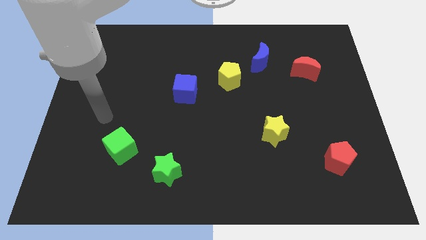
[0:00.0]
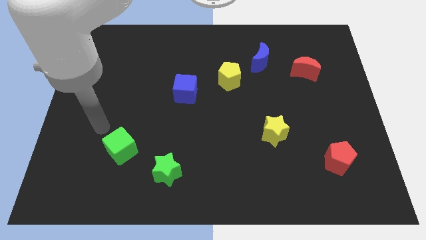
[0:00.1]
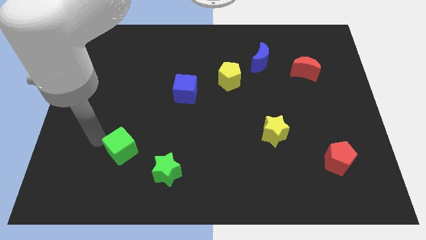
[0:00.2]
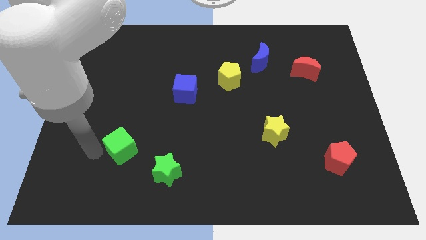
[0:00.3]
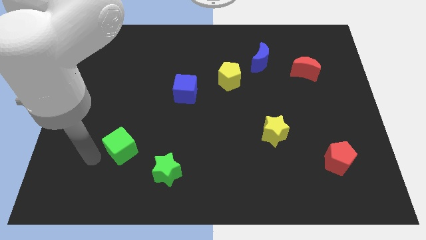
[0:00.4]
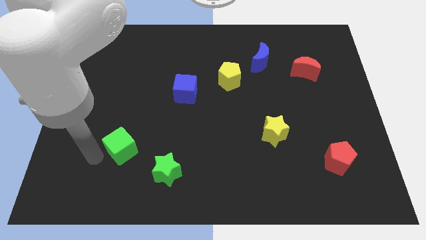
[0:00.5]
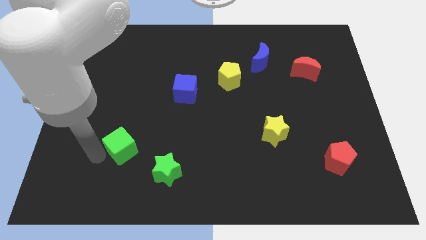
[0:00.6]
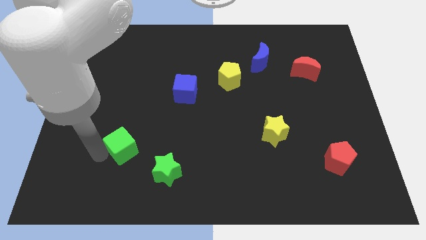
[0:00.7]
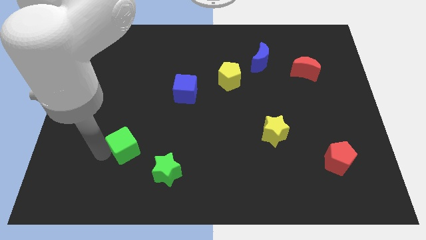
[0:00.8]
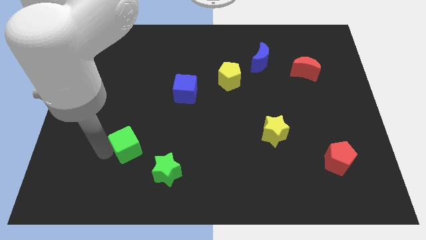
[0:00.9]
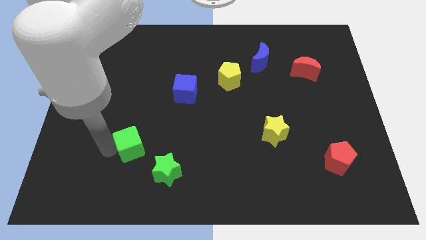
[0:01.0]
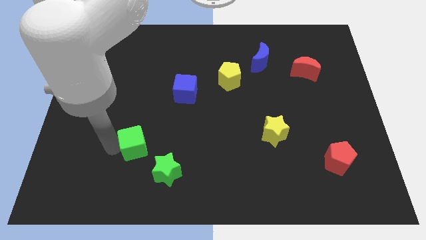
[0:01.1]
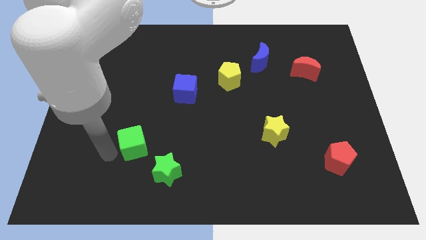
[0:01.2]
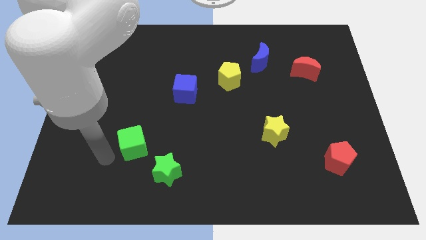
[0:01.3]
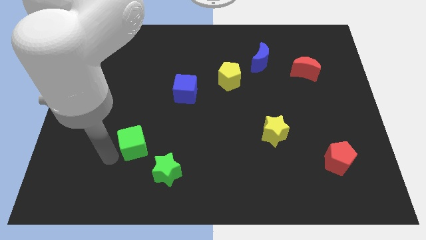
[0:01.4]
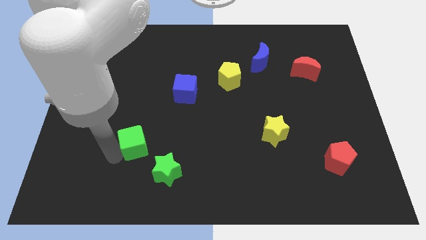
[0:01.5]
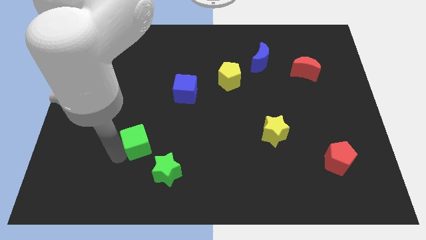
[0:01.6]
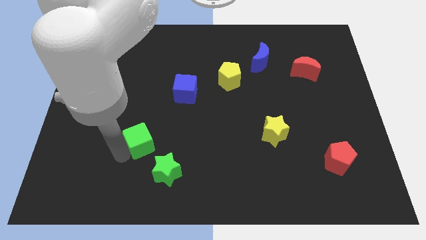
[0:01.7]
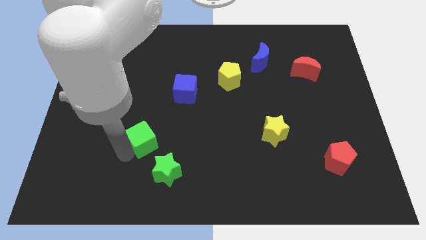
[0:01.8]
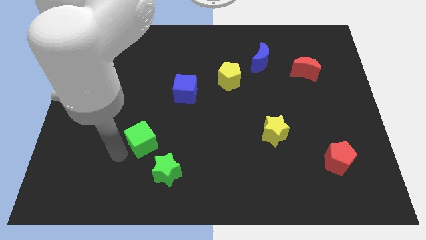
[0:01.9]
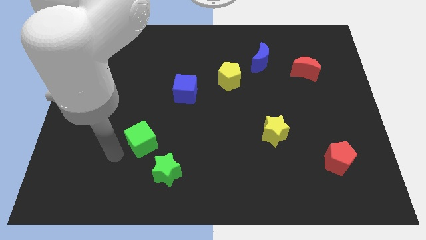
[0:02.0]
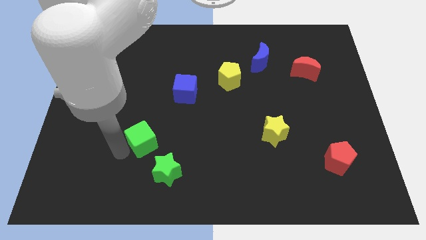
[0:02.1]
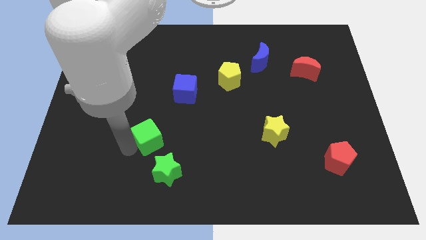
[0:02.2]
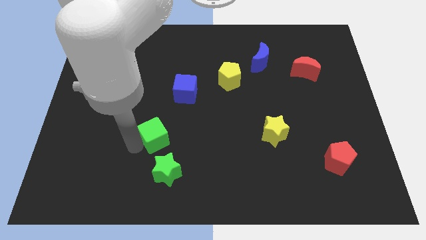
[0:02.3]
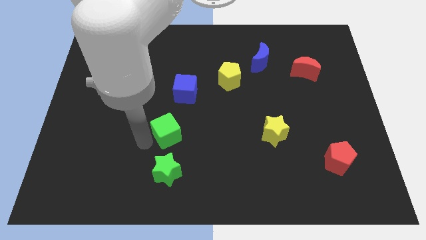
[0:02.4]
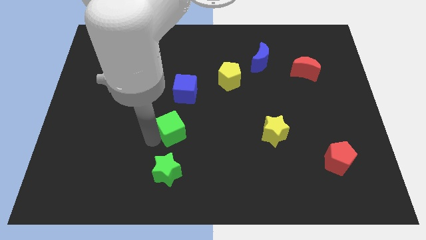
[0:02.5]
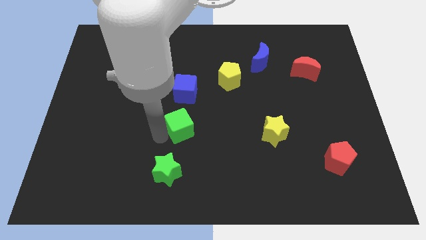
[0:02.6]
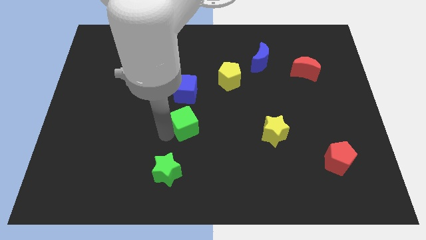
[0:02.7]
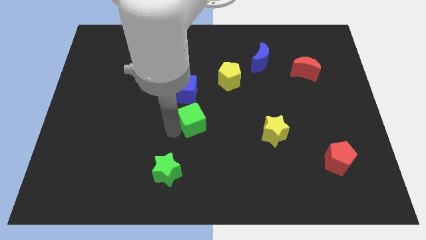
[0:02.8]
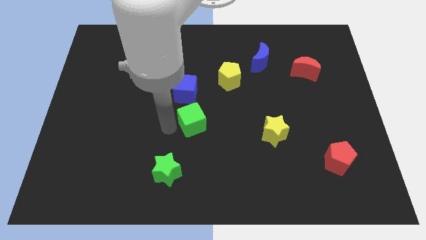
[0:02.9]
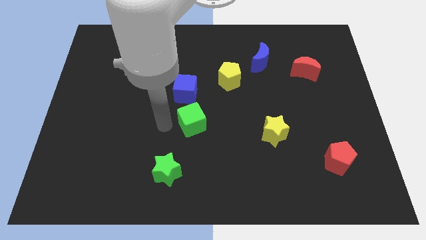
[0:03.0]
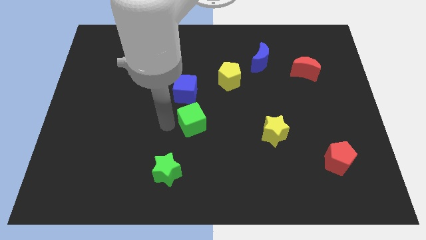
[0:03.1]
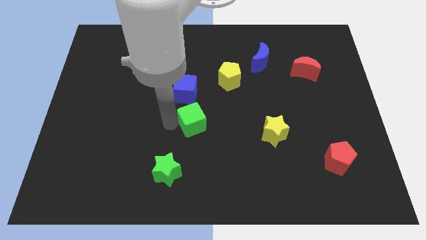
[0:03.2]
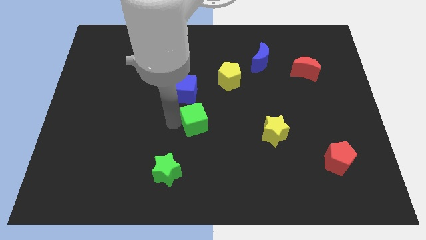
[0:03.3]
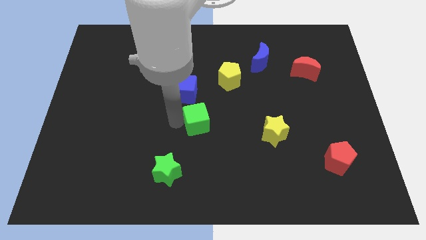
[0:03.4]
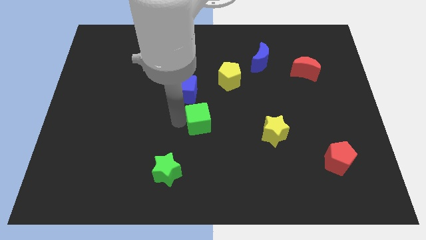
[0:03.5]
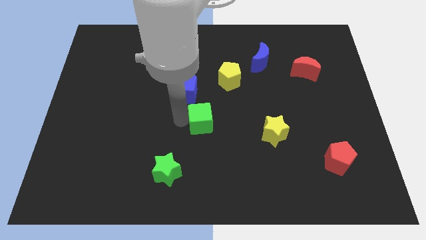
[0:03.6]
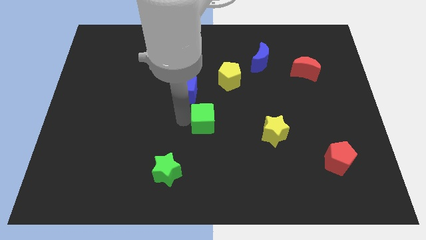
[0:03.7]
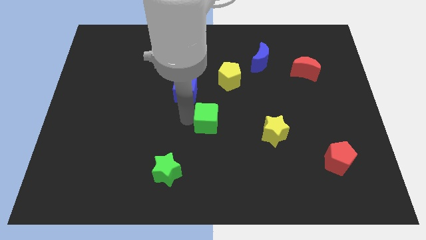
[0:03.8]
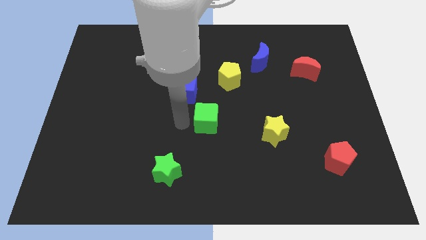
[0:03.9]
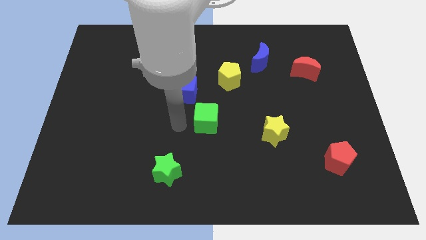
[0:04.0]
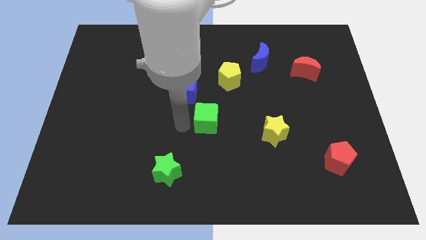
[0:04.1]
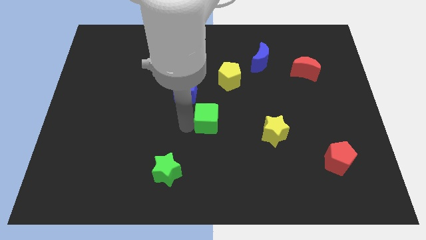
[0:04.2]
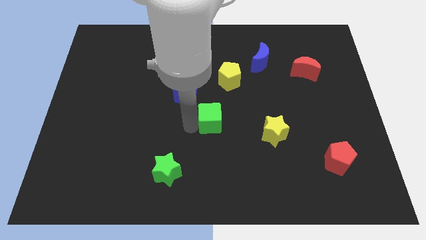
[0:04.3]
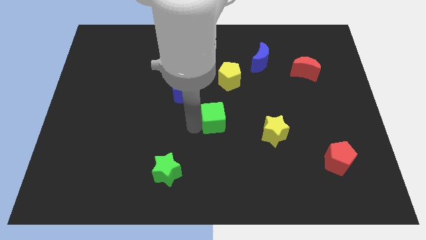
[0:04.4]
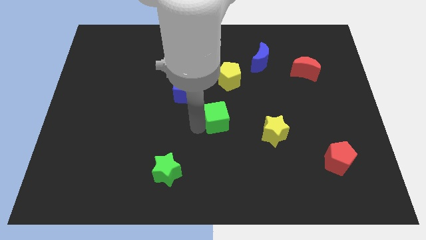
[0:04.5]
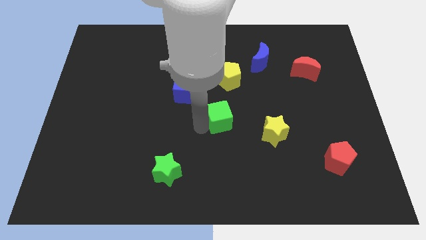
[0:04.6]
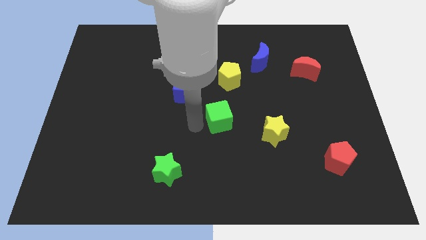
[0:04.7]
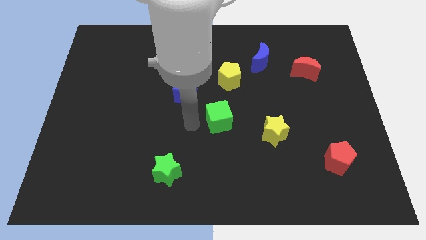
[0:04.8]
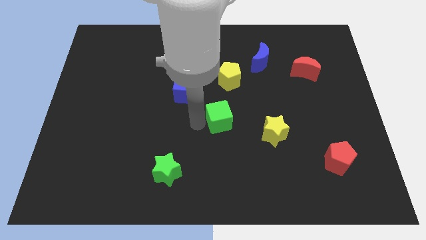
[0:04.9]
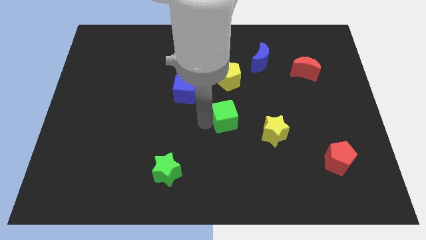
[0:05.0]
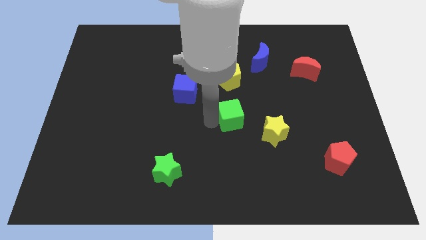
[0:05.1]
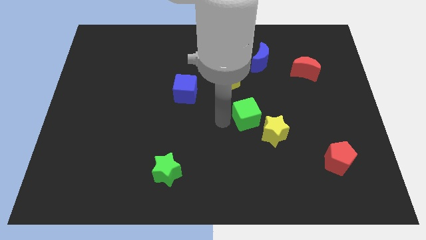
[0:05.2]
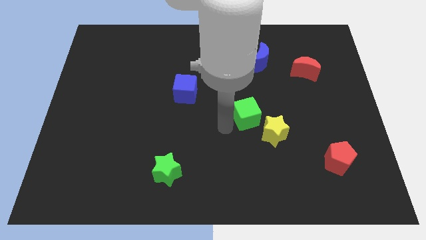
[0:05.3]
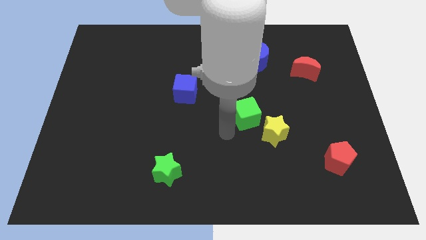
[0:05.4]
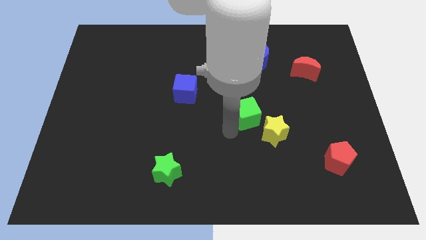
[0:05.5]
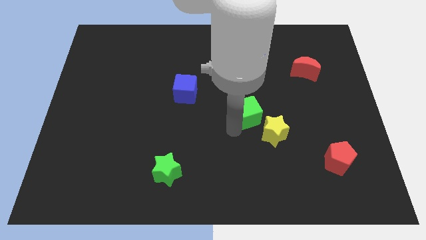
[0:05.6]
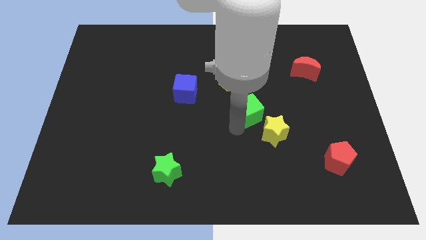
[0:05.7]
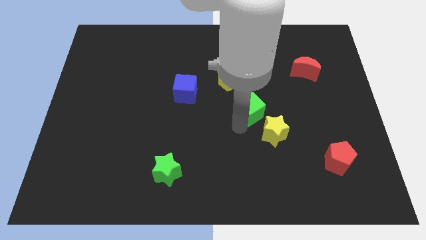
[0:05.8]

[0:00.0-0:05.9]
push the green cube to the top side of the yellow star
